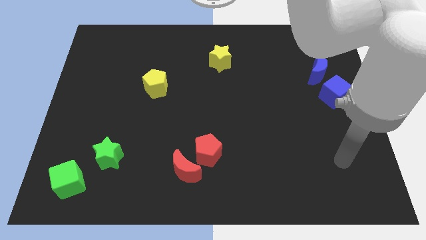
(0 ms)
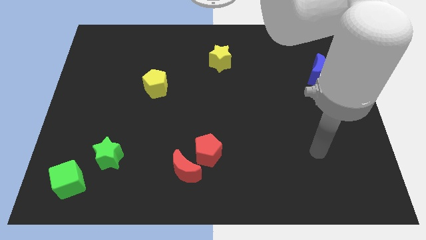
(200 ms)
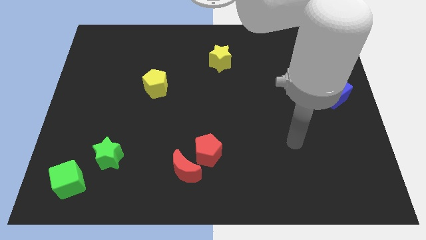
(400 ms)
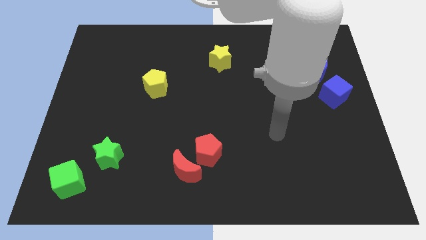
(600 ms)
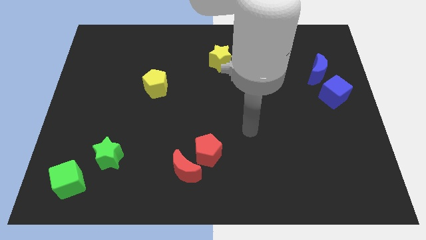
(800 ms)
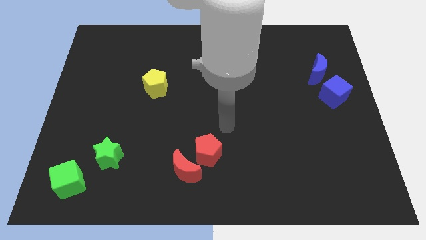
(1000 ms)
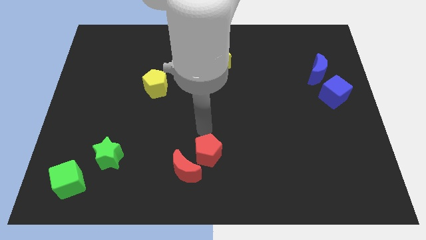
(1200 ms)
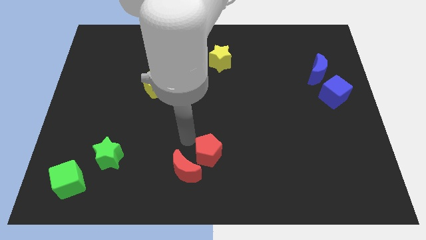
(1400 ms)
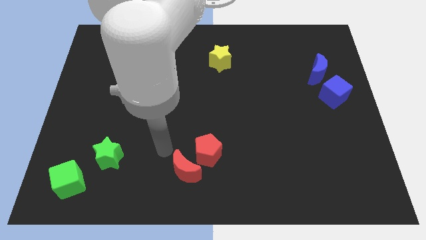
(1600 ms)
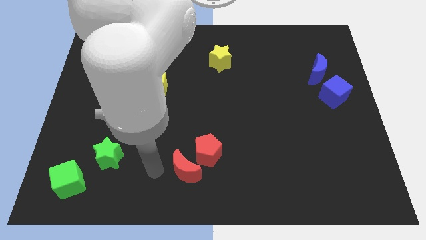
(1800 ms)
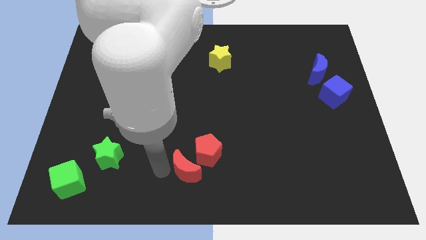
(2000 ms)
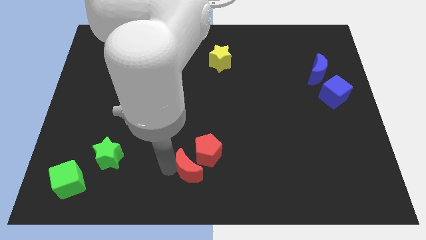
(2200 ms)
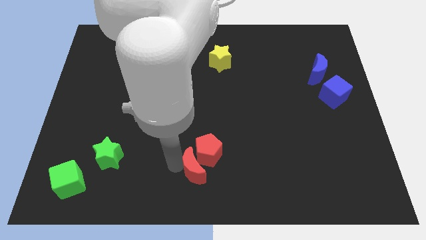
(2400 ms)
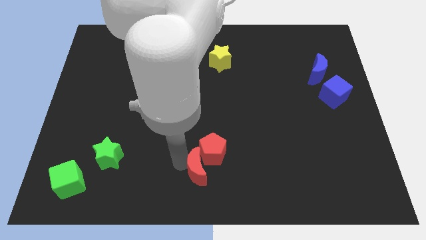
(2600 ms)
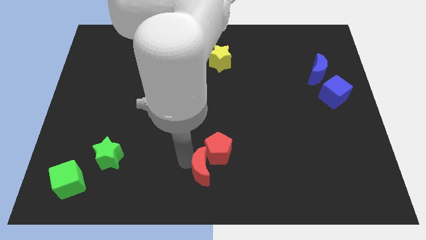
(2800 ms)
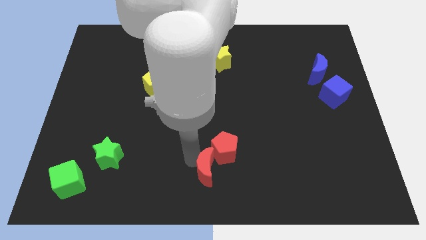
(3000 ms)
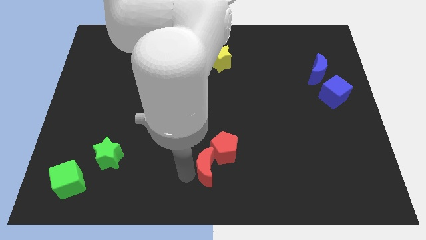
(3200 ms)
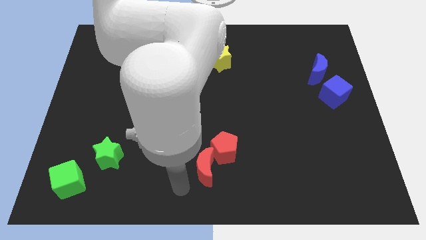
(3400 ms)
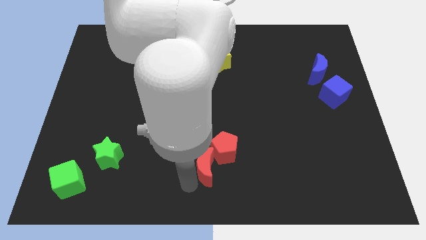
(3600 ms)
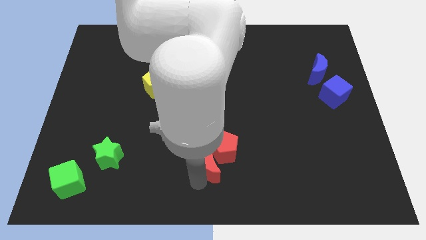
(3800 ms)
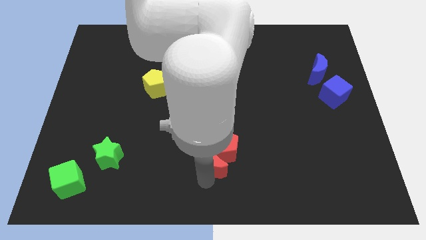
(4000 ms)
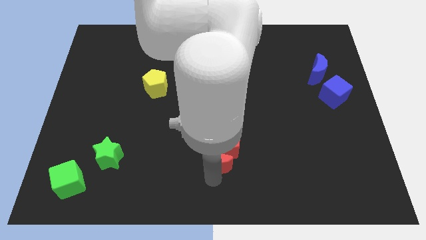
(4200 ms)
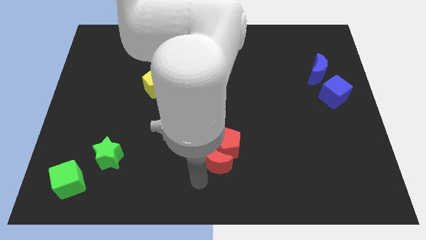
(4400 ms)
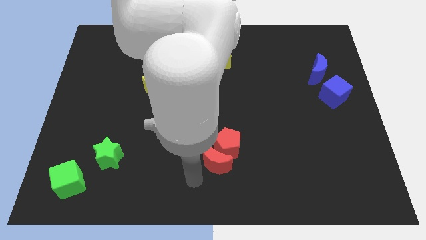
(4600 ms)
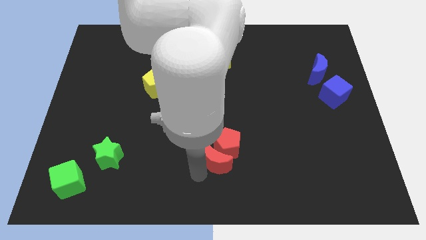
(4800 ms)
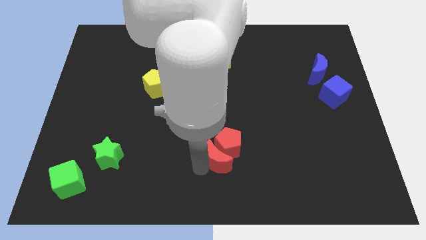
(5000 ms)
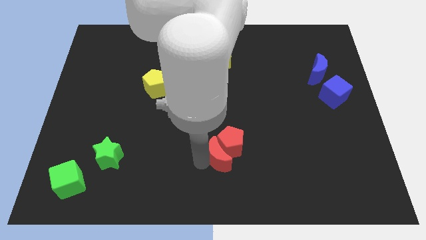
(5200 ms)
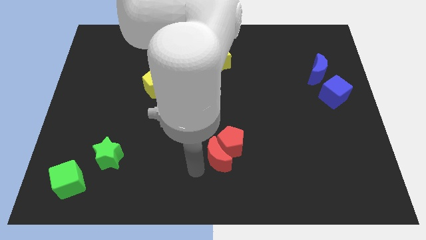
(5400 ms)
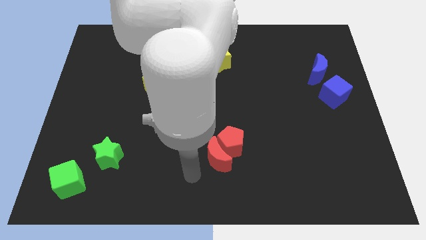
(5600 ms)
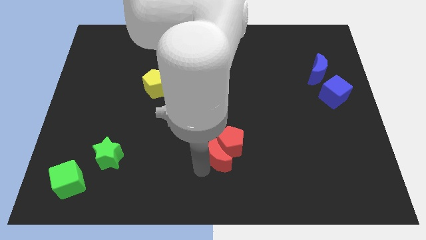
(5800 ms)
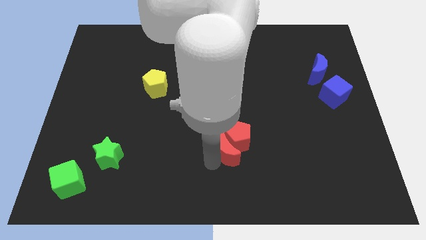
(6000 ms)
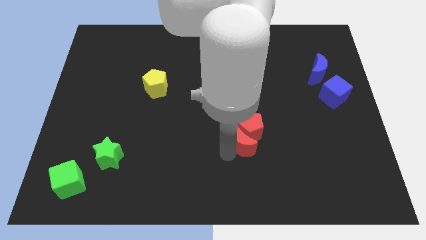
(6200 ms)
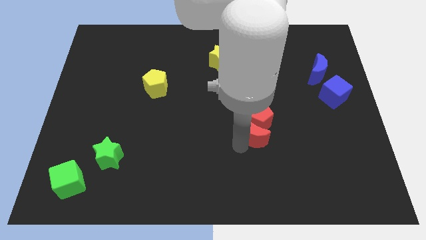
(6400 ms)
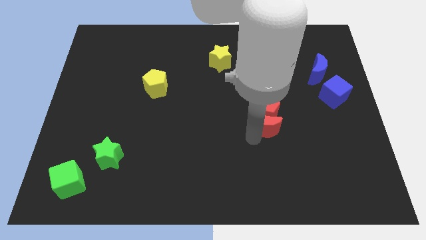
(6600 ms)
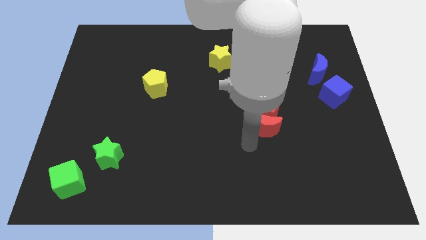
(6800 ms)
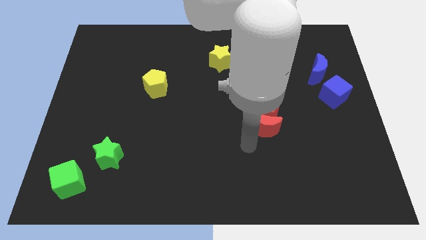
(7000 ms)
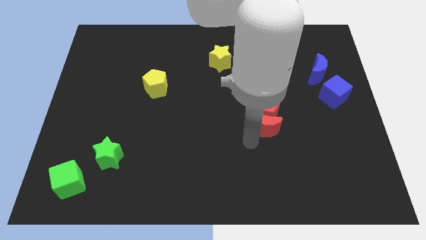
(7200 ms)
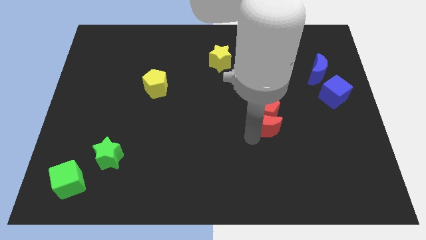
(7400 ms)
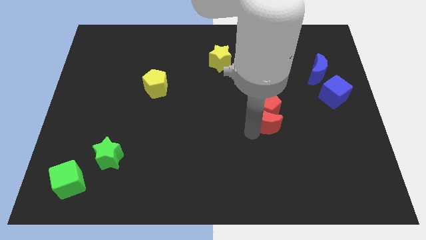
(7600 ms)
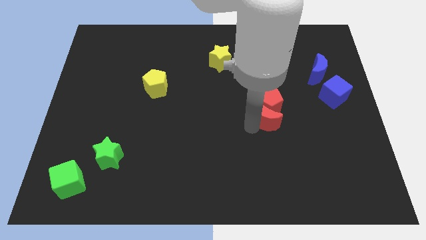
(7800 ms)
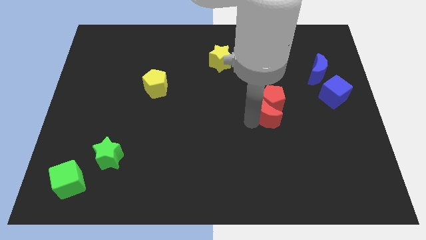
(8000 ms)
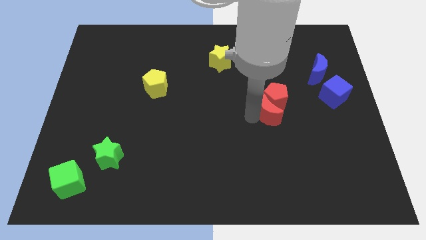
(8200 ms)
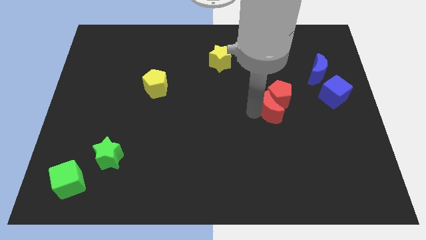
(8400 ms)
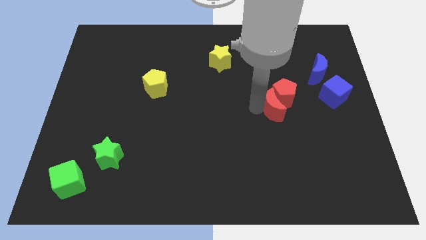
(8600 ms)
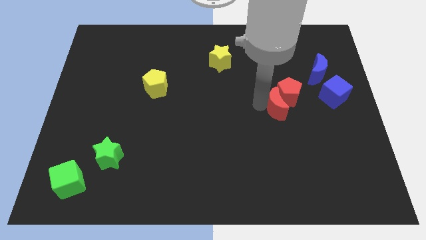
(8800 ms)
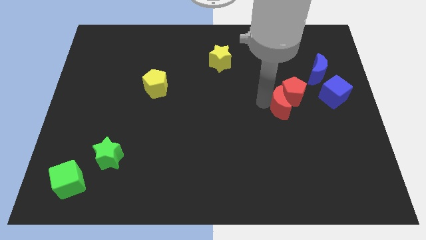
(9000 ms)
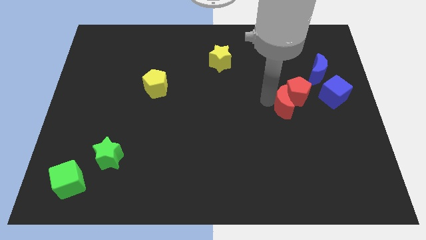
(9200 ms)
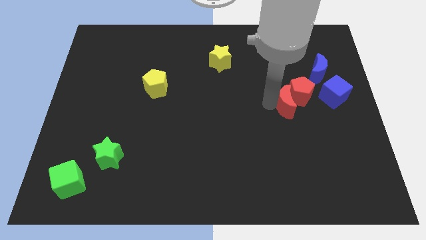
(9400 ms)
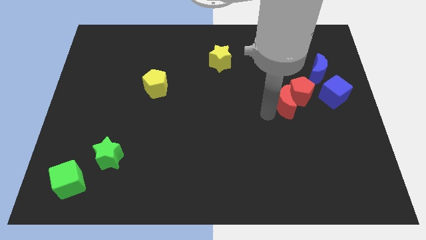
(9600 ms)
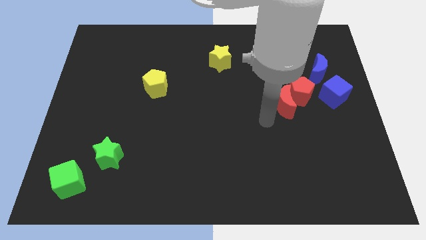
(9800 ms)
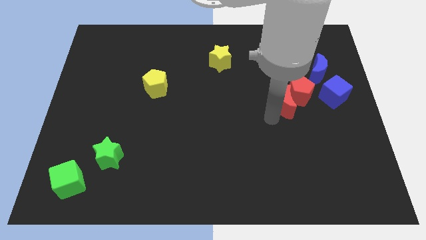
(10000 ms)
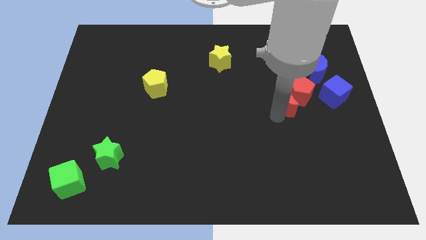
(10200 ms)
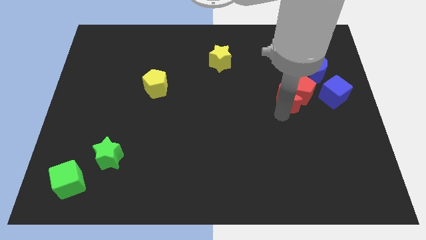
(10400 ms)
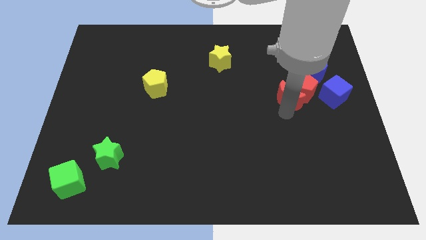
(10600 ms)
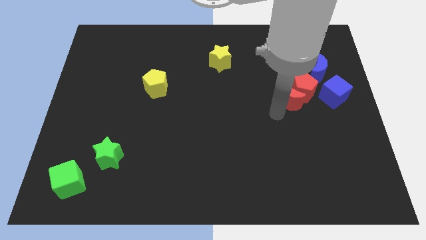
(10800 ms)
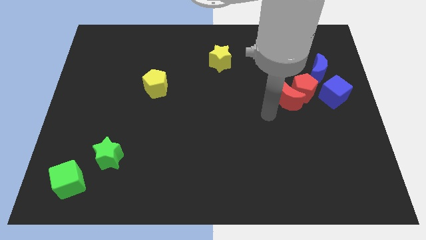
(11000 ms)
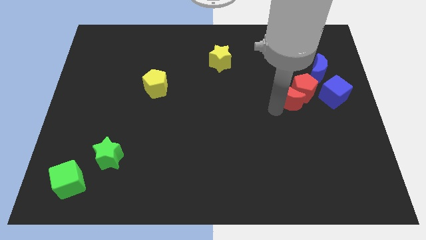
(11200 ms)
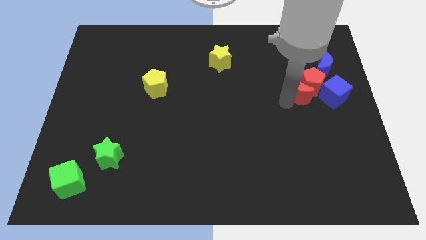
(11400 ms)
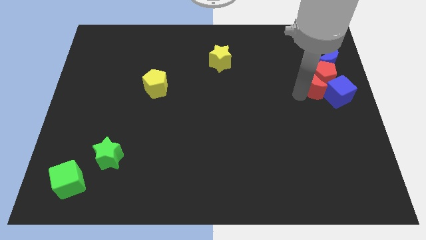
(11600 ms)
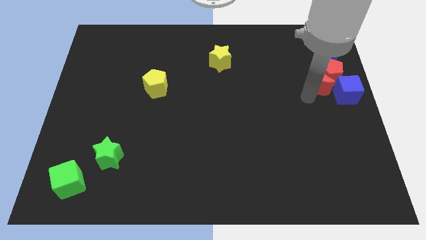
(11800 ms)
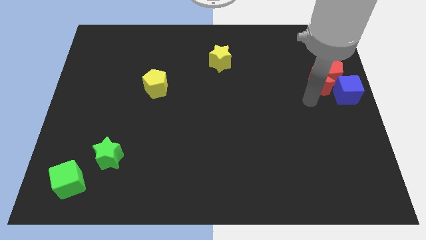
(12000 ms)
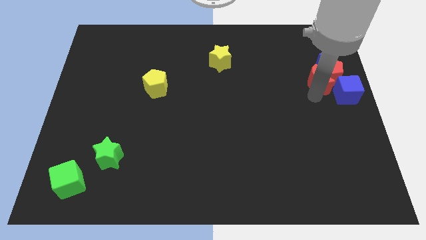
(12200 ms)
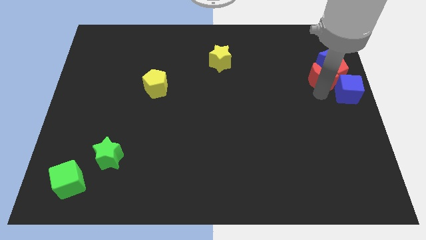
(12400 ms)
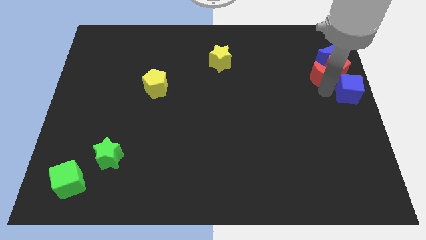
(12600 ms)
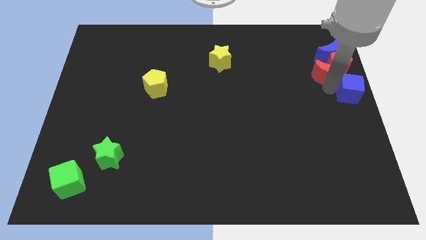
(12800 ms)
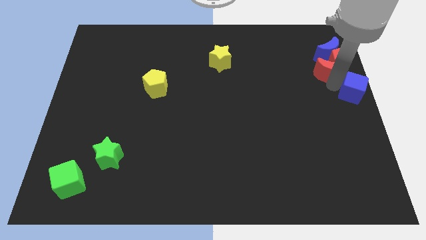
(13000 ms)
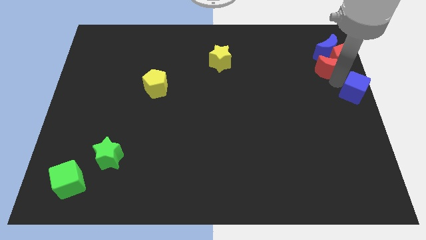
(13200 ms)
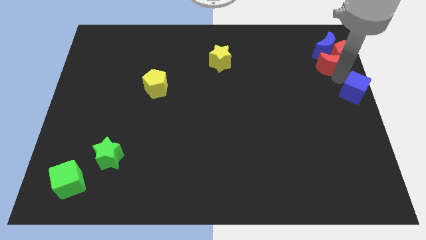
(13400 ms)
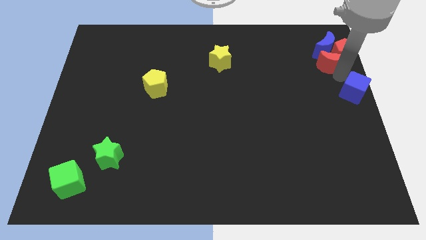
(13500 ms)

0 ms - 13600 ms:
move the red moon close to the blue moon

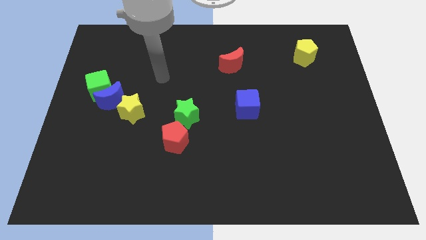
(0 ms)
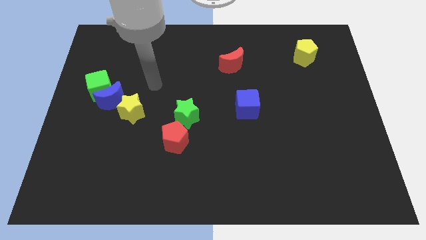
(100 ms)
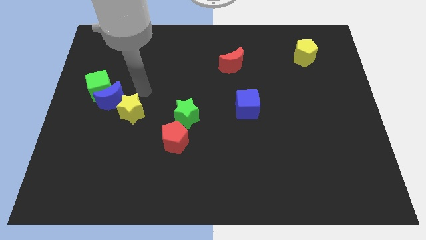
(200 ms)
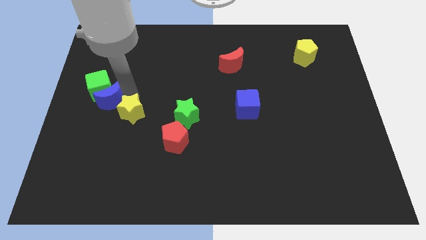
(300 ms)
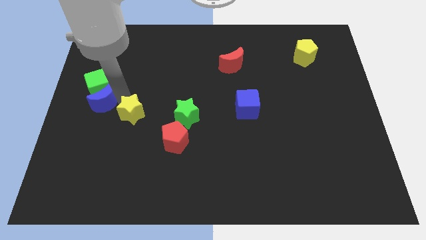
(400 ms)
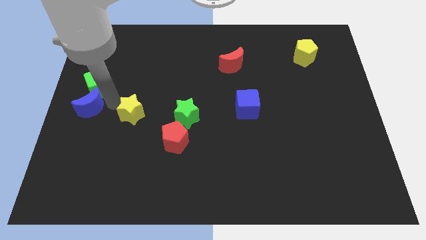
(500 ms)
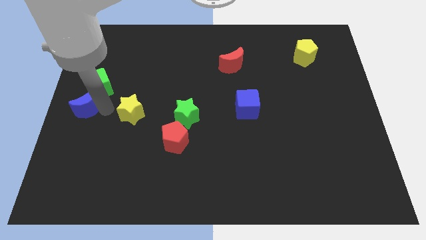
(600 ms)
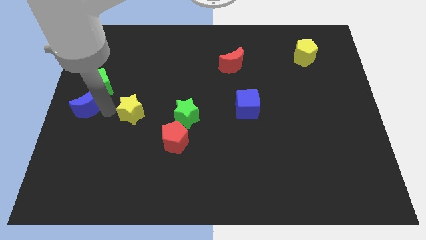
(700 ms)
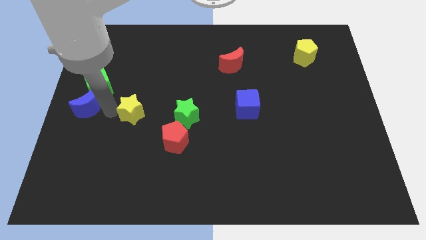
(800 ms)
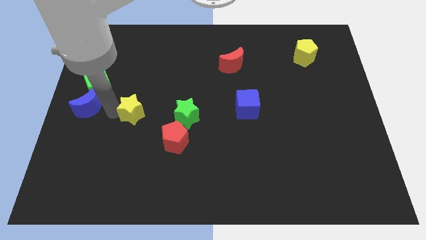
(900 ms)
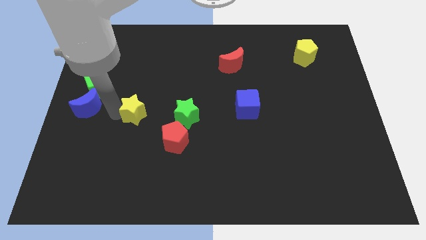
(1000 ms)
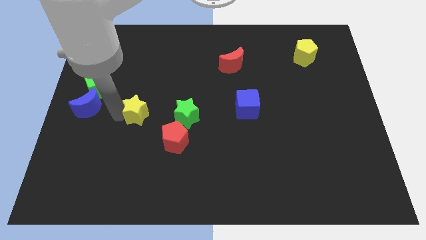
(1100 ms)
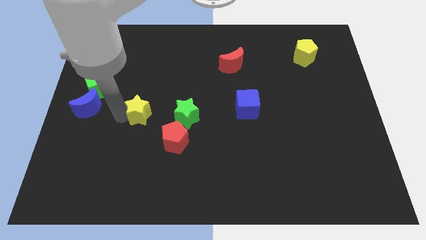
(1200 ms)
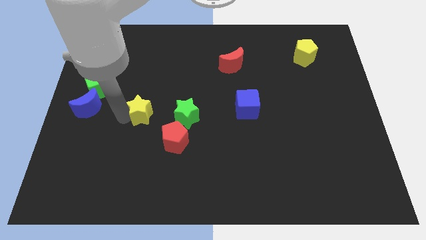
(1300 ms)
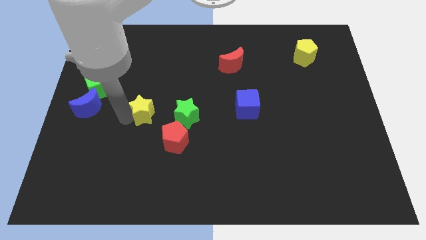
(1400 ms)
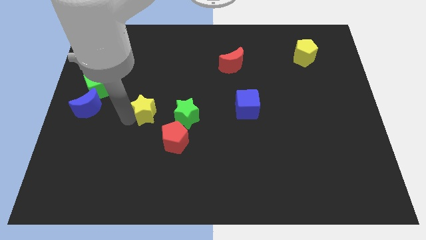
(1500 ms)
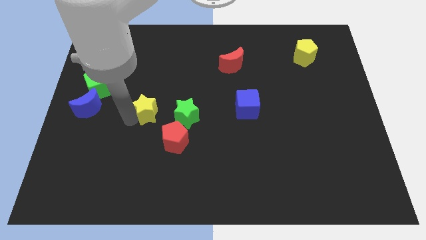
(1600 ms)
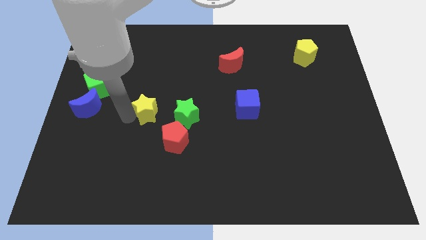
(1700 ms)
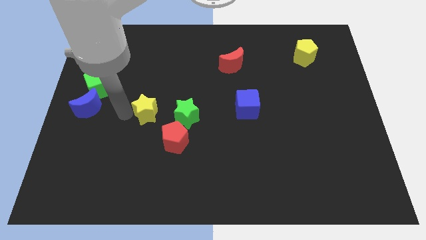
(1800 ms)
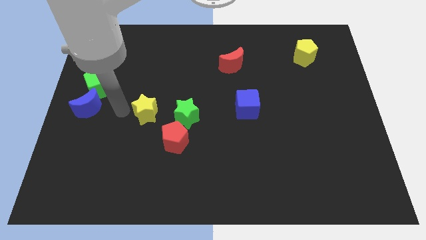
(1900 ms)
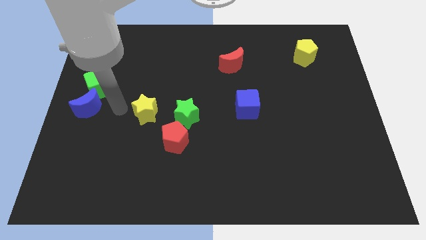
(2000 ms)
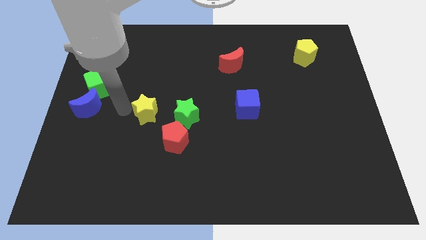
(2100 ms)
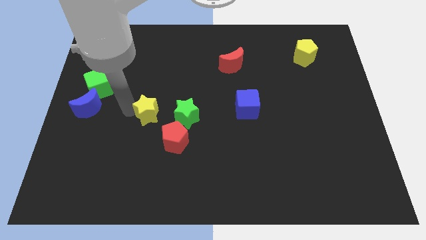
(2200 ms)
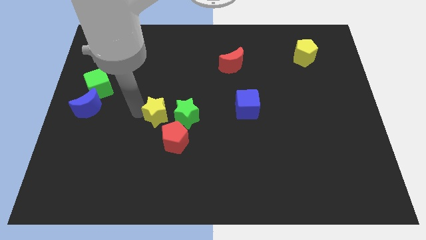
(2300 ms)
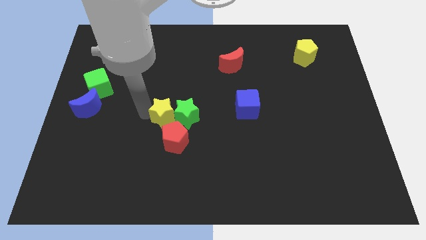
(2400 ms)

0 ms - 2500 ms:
push the yellow star close to the green star
